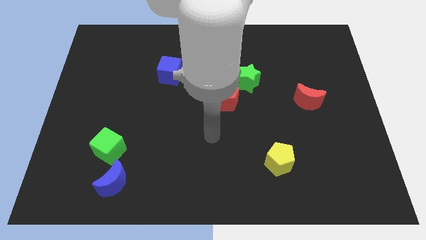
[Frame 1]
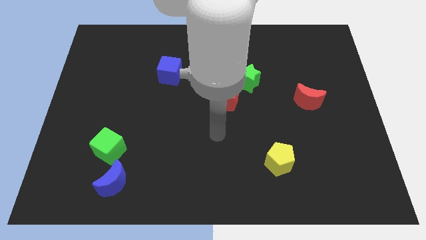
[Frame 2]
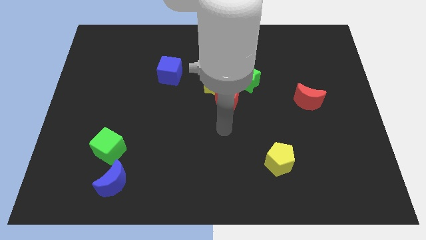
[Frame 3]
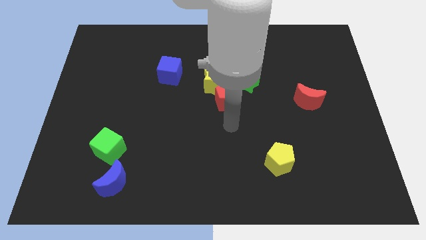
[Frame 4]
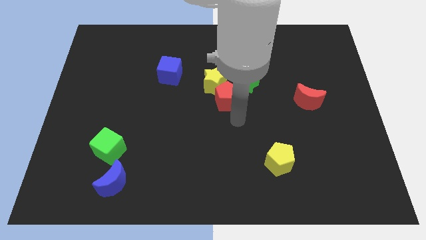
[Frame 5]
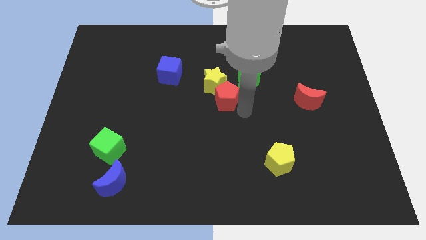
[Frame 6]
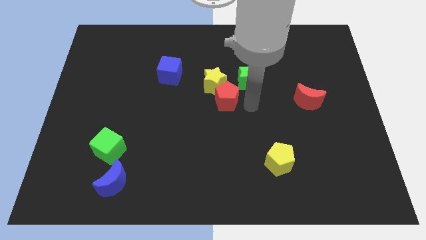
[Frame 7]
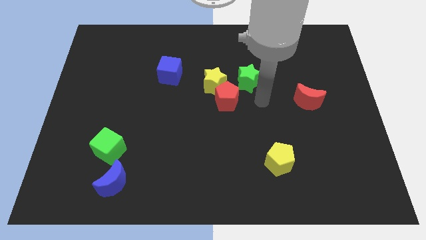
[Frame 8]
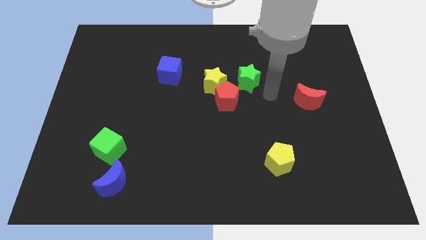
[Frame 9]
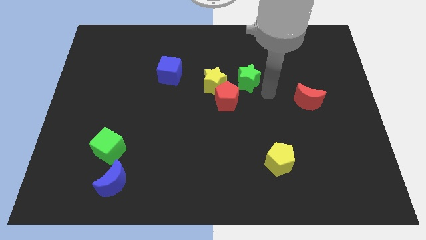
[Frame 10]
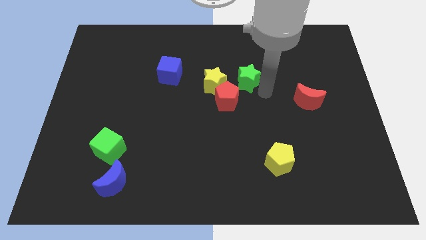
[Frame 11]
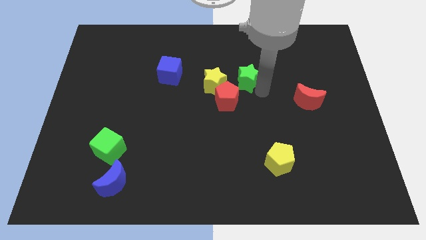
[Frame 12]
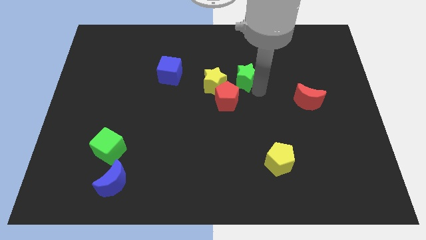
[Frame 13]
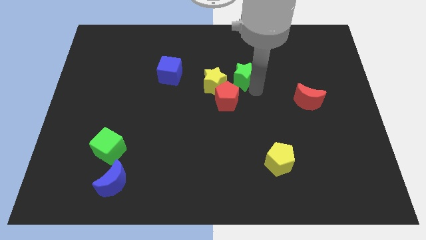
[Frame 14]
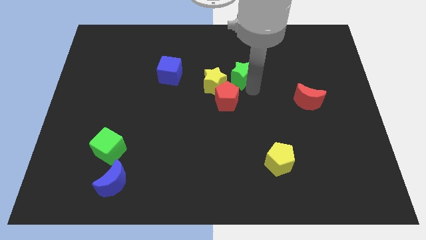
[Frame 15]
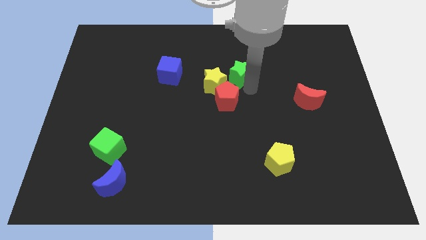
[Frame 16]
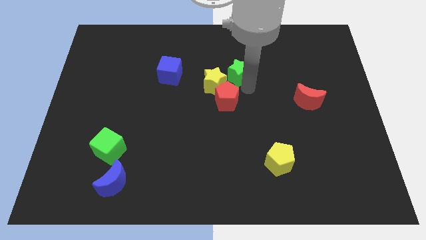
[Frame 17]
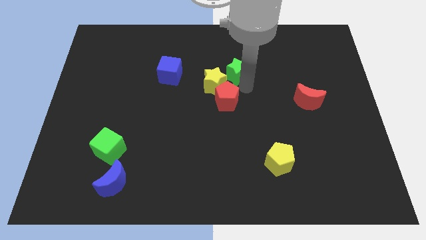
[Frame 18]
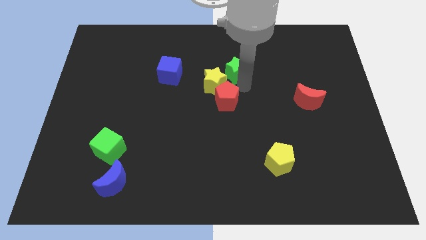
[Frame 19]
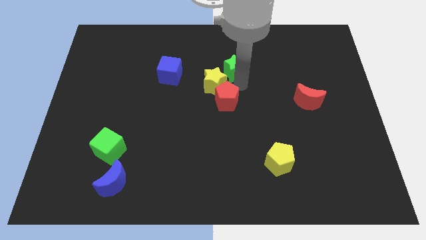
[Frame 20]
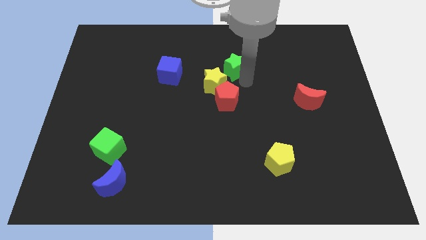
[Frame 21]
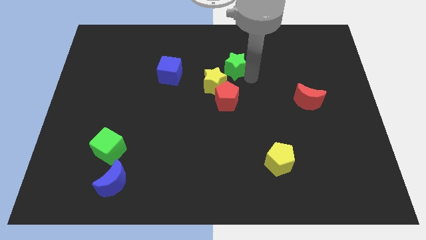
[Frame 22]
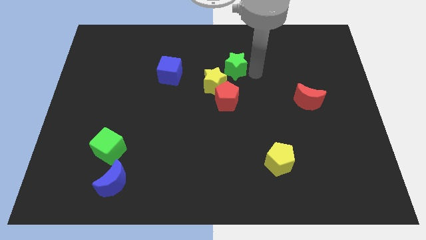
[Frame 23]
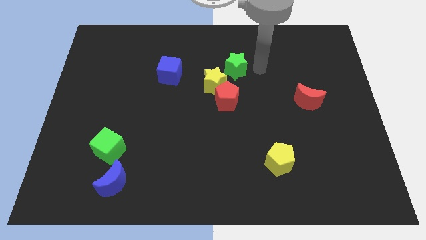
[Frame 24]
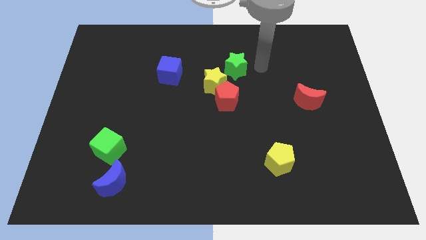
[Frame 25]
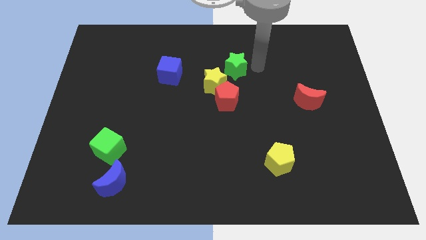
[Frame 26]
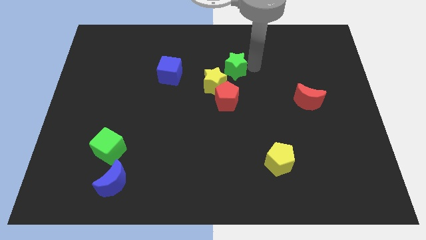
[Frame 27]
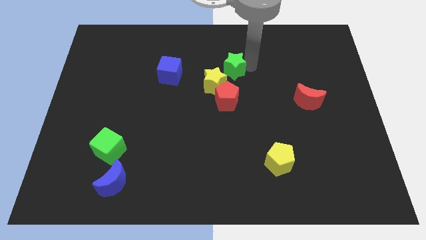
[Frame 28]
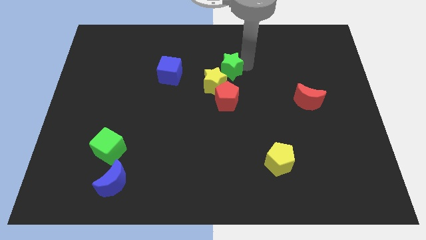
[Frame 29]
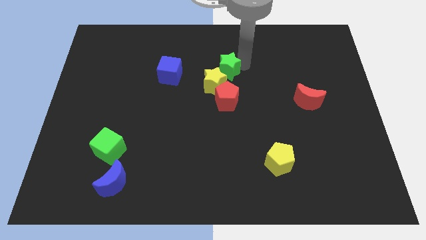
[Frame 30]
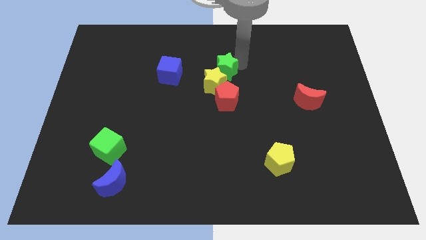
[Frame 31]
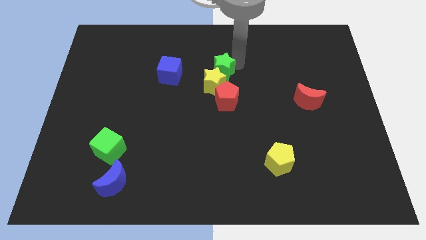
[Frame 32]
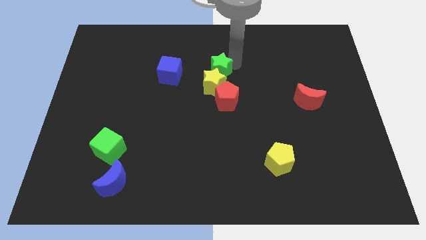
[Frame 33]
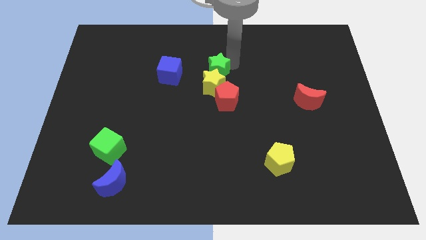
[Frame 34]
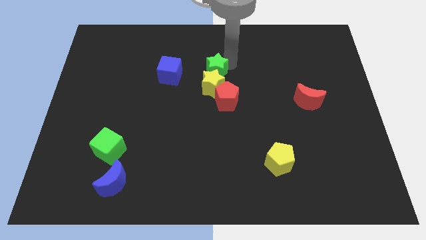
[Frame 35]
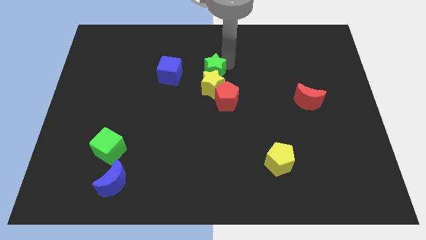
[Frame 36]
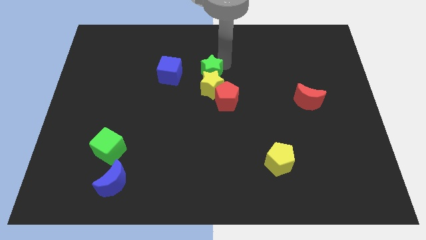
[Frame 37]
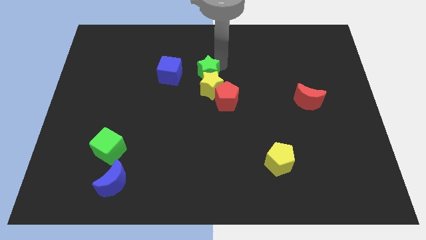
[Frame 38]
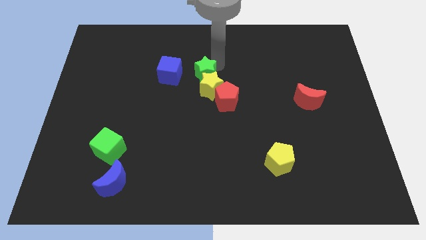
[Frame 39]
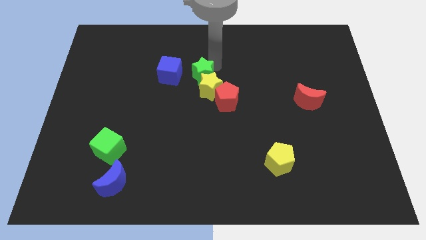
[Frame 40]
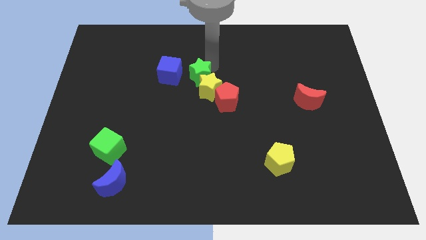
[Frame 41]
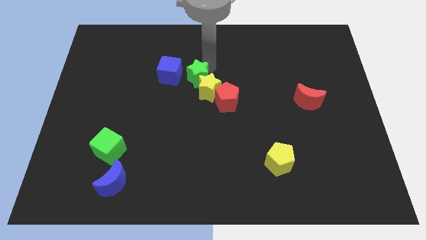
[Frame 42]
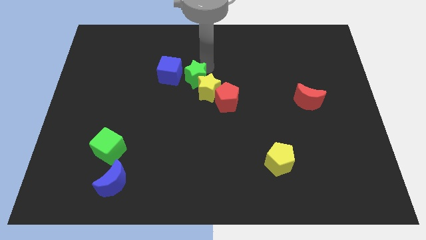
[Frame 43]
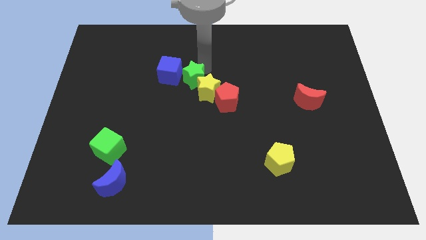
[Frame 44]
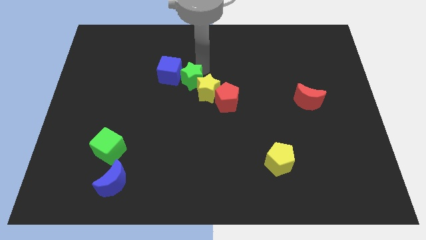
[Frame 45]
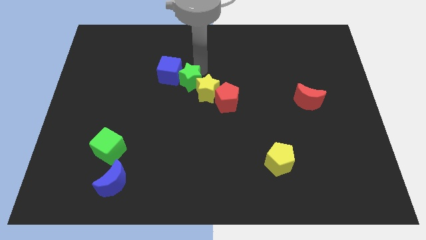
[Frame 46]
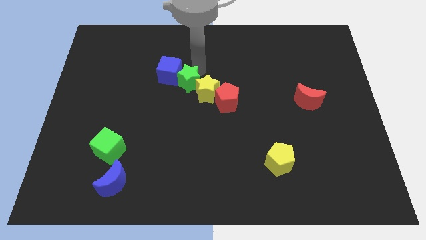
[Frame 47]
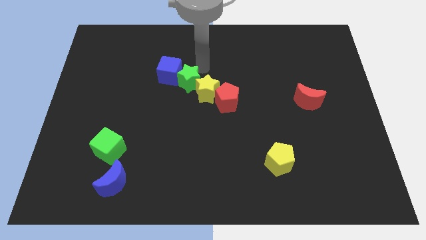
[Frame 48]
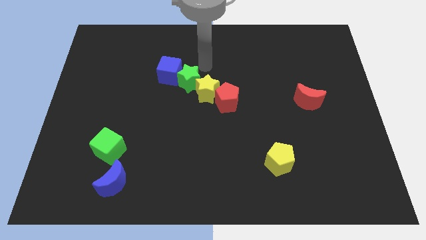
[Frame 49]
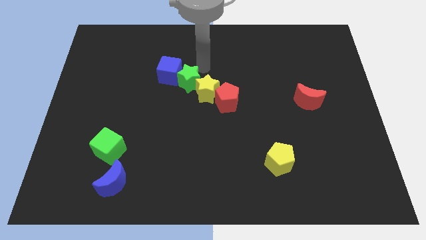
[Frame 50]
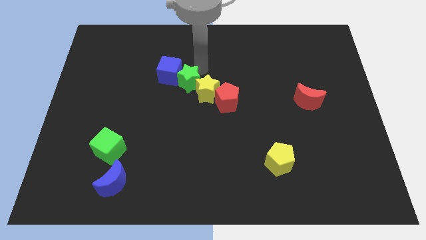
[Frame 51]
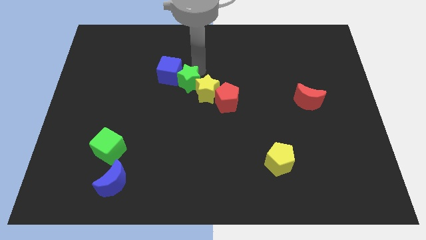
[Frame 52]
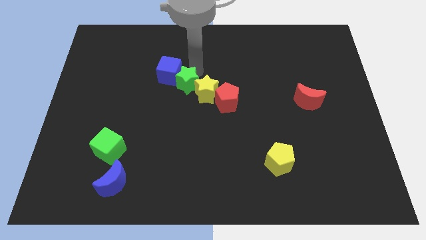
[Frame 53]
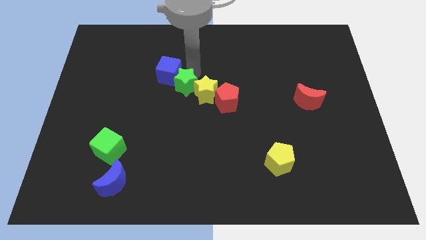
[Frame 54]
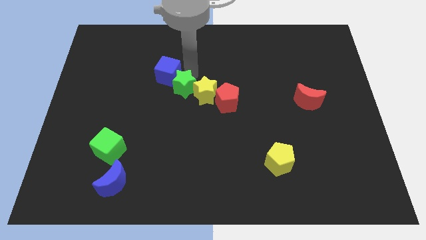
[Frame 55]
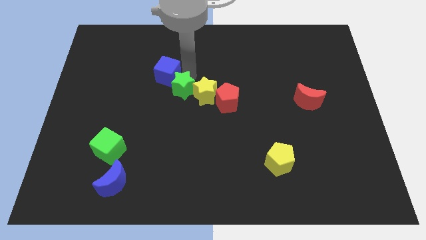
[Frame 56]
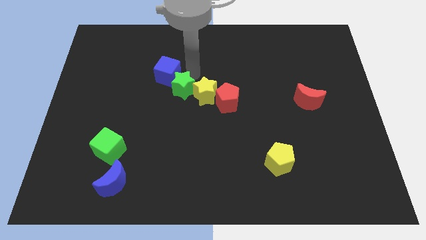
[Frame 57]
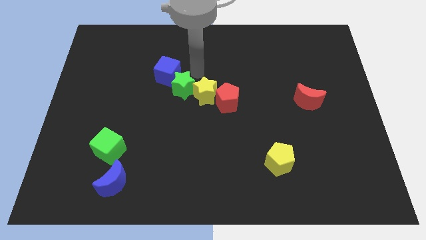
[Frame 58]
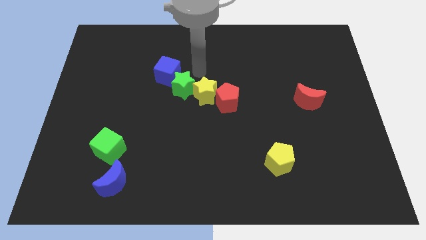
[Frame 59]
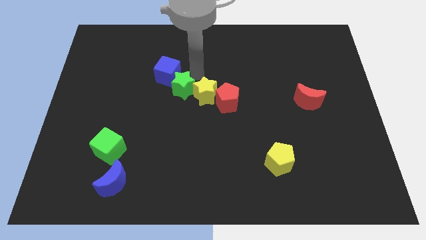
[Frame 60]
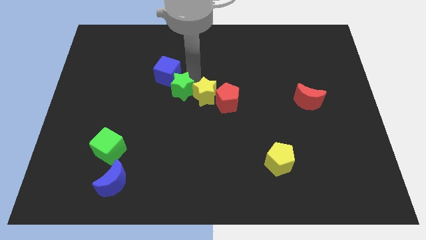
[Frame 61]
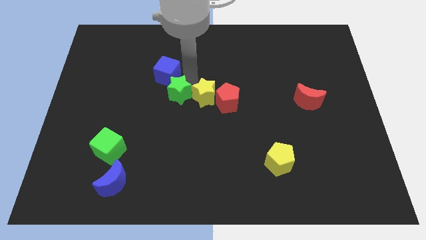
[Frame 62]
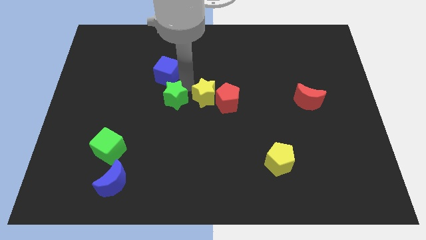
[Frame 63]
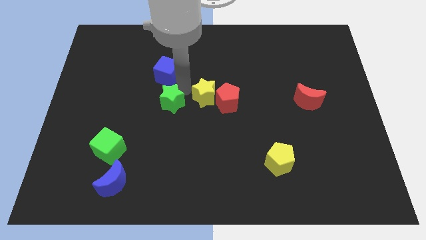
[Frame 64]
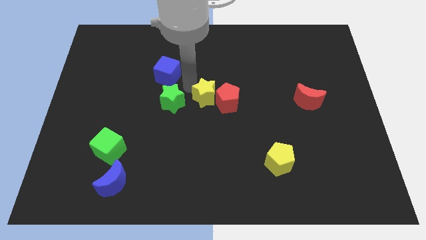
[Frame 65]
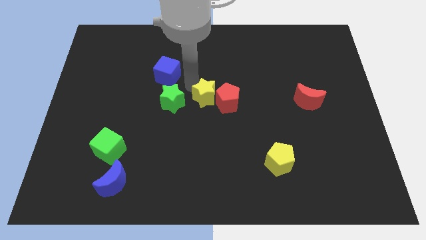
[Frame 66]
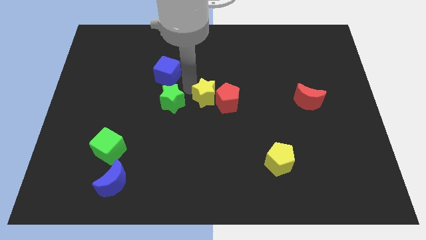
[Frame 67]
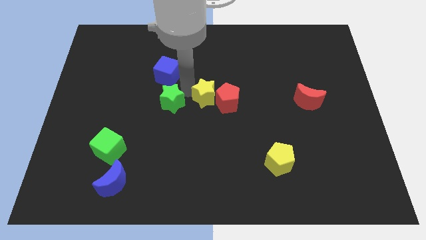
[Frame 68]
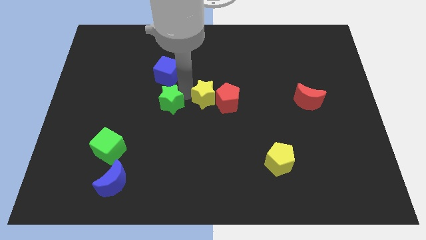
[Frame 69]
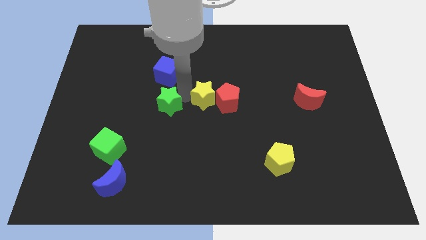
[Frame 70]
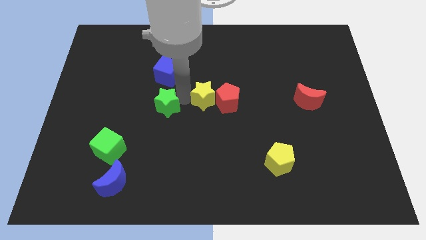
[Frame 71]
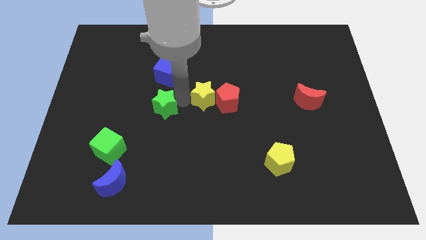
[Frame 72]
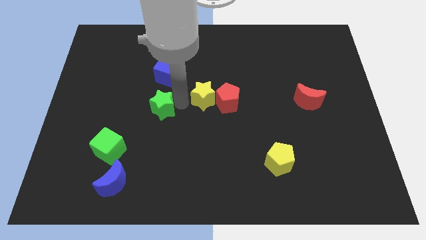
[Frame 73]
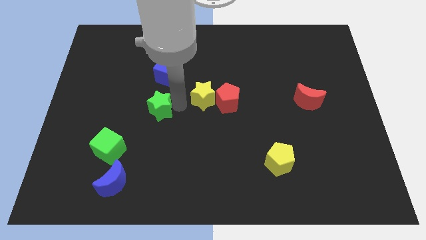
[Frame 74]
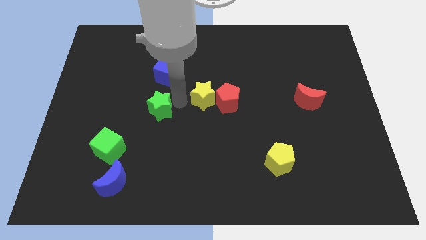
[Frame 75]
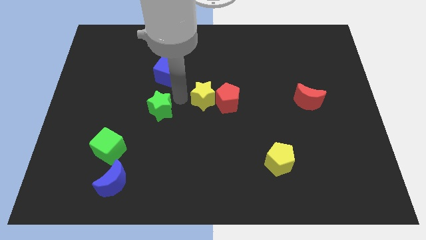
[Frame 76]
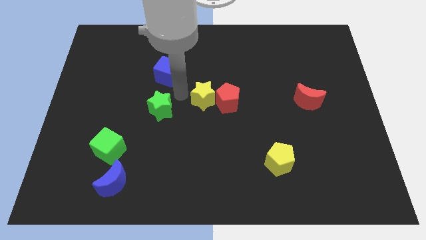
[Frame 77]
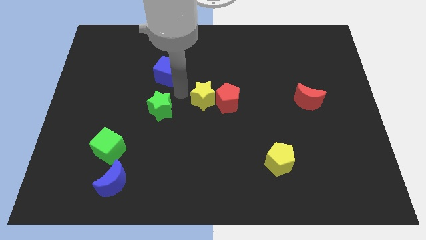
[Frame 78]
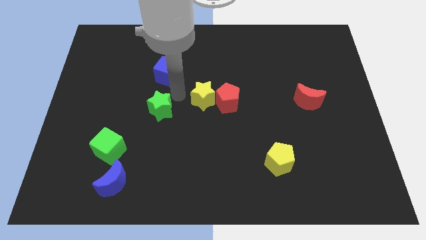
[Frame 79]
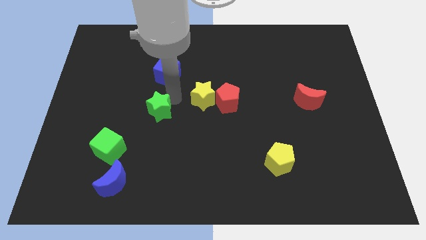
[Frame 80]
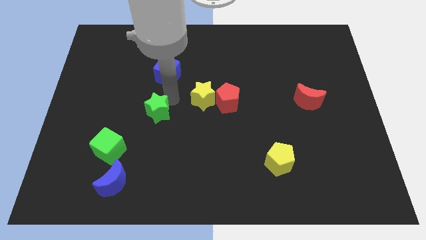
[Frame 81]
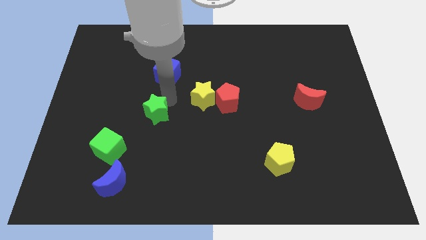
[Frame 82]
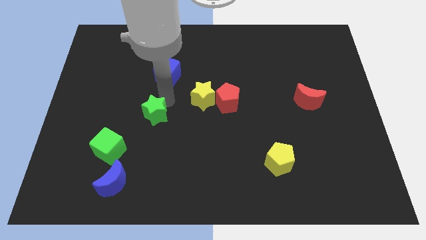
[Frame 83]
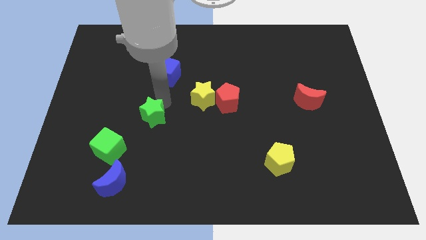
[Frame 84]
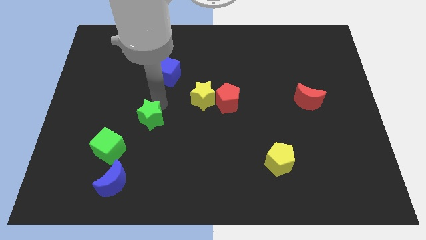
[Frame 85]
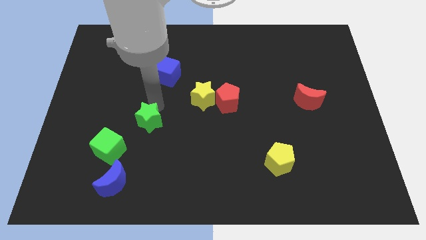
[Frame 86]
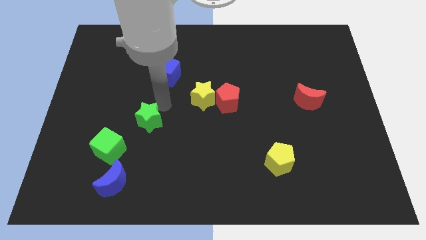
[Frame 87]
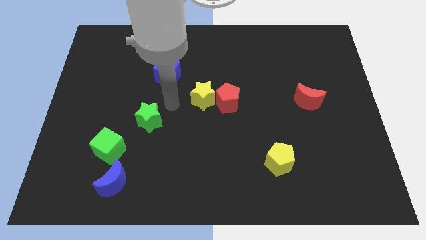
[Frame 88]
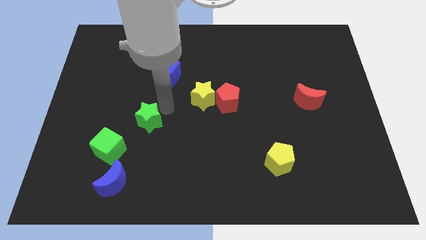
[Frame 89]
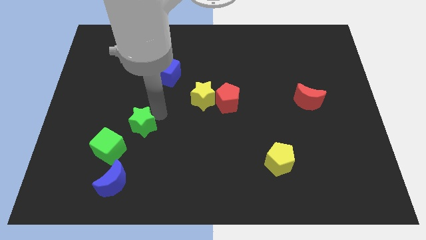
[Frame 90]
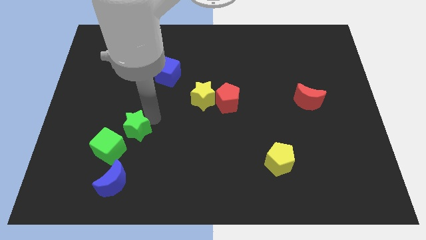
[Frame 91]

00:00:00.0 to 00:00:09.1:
move the green star to the top of the blue moon
